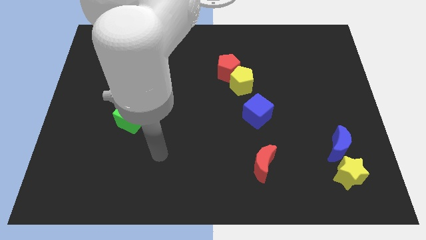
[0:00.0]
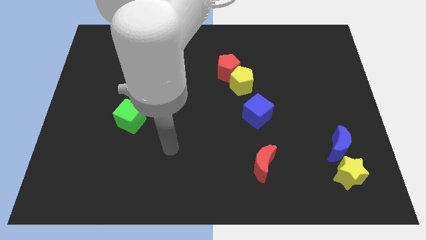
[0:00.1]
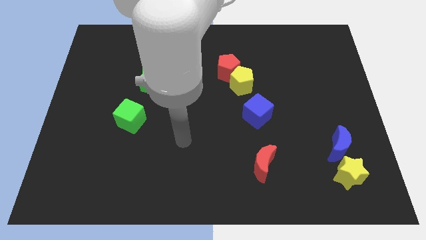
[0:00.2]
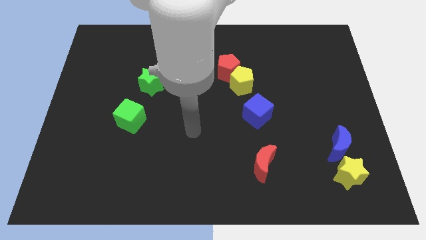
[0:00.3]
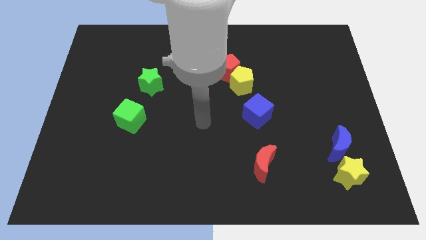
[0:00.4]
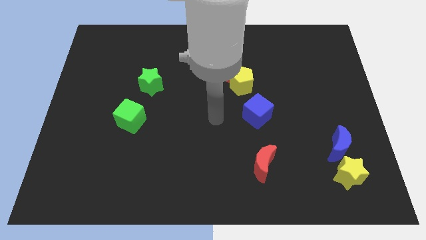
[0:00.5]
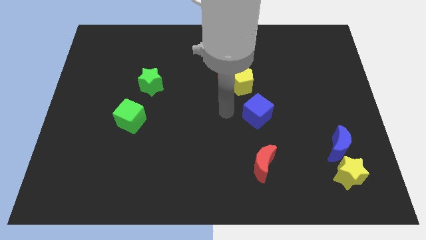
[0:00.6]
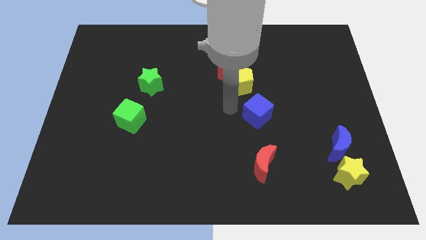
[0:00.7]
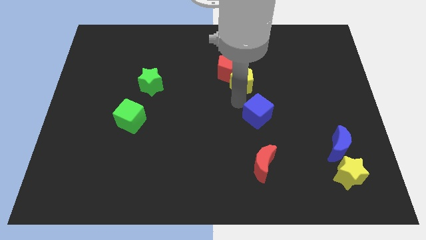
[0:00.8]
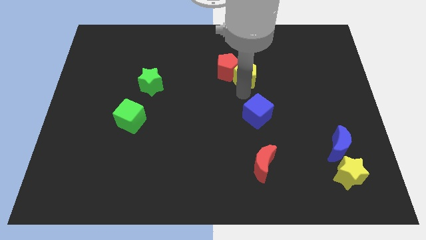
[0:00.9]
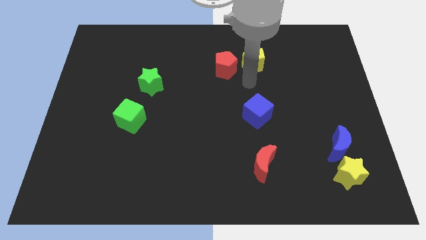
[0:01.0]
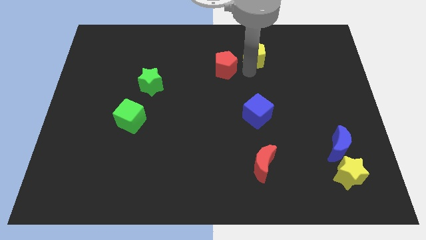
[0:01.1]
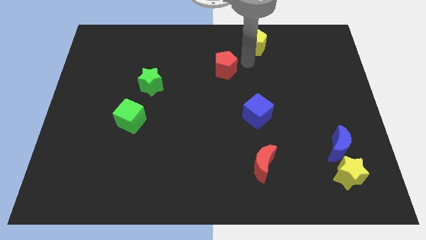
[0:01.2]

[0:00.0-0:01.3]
separate the red pentagon from the yellow pentagon

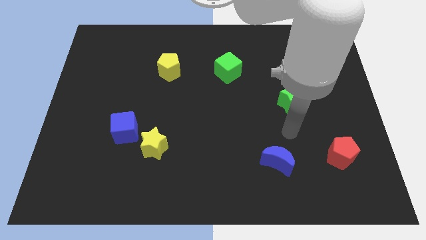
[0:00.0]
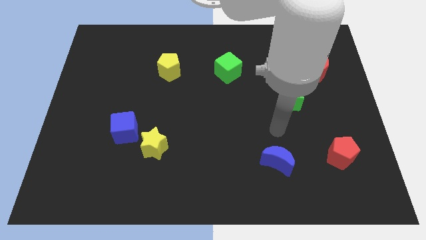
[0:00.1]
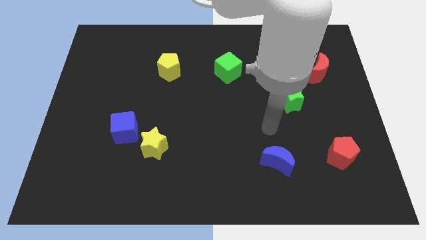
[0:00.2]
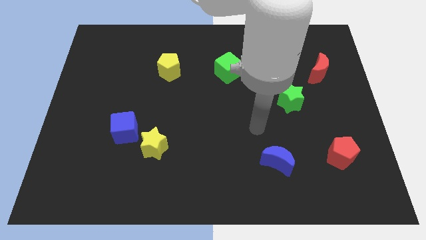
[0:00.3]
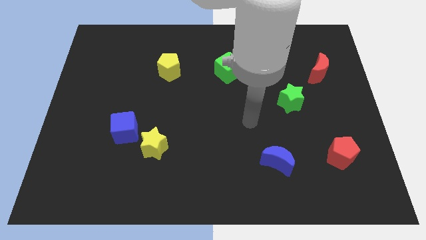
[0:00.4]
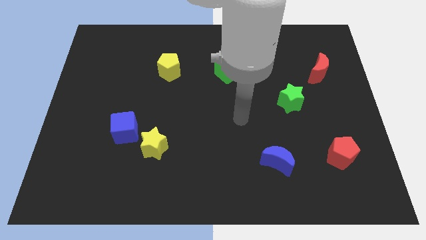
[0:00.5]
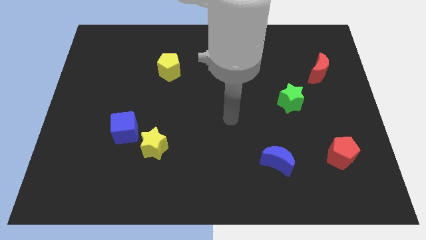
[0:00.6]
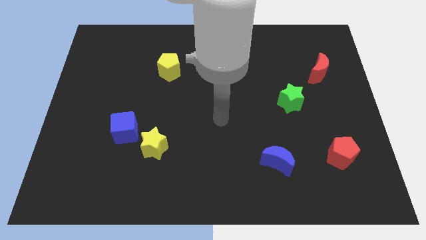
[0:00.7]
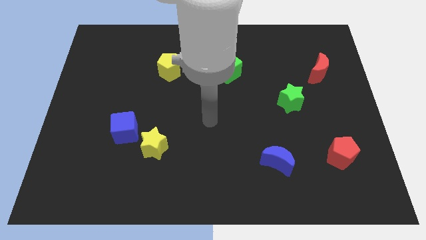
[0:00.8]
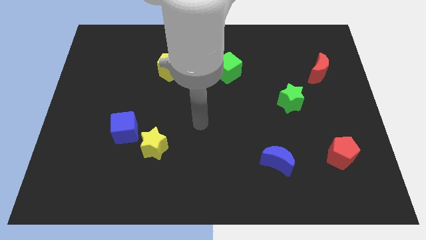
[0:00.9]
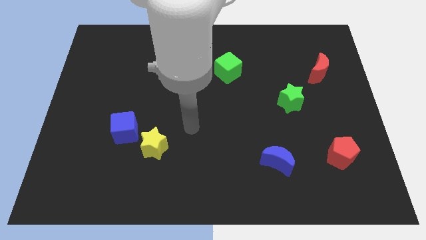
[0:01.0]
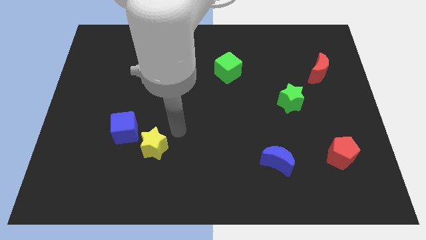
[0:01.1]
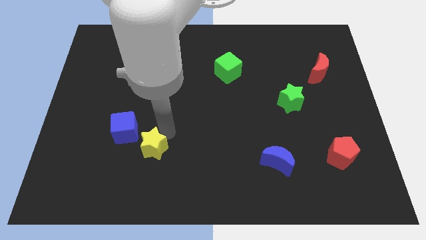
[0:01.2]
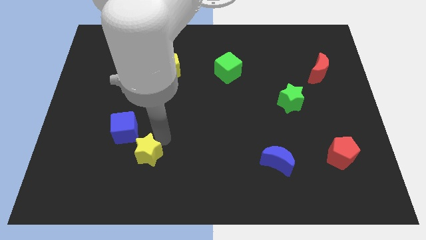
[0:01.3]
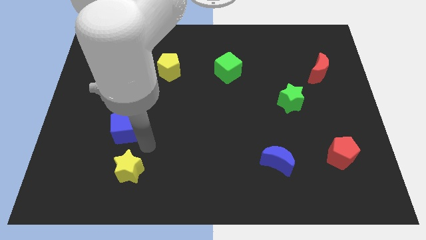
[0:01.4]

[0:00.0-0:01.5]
separate the blue cube from the yellow star

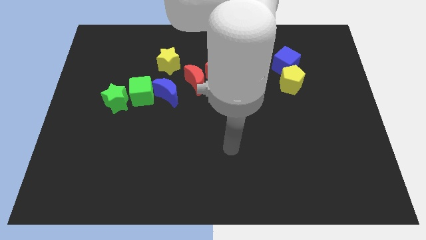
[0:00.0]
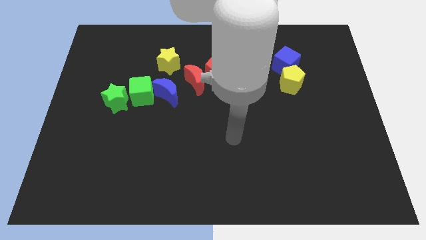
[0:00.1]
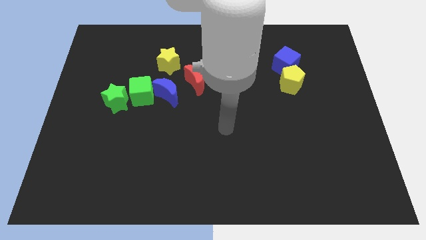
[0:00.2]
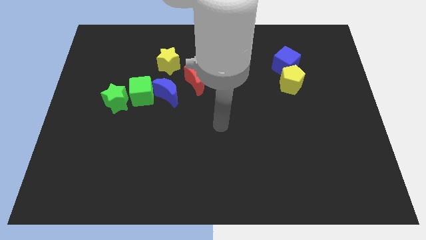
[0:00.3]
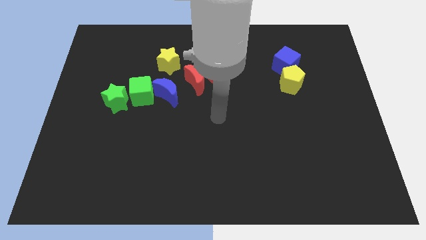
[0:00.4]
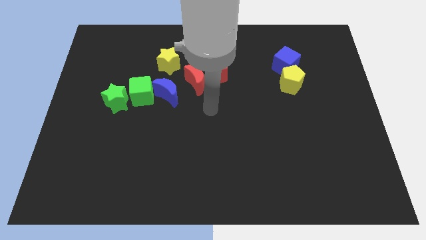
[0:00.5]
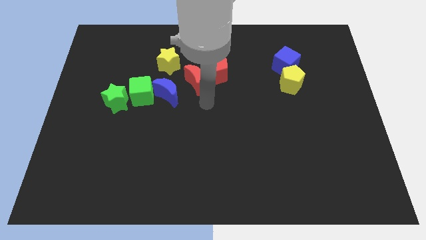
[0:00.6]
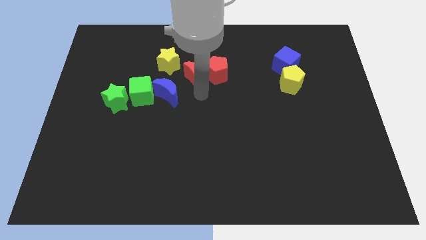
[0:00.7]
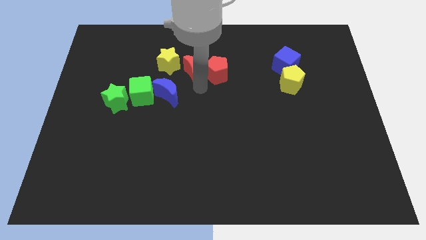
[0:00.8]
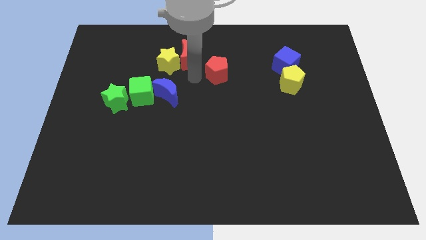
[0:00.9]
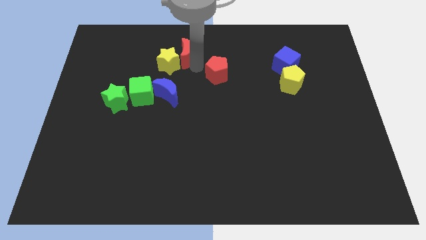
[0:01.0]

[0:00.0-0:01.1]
pull the red pentagon apart from the red moon

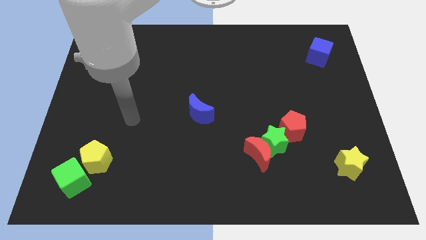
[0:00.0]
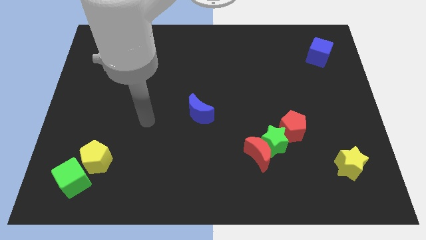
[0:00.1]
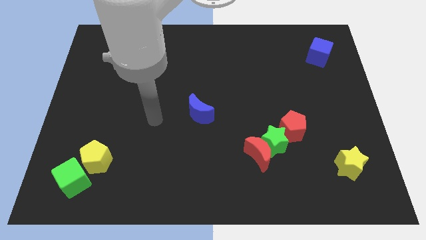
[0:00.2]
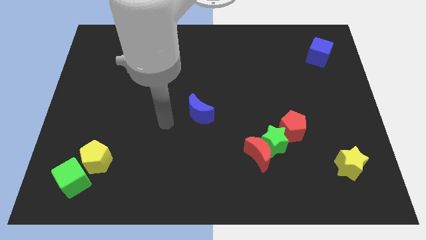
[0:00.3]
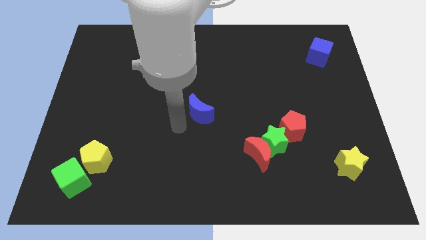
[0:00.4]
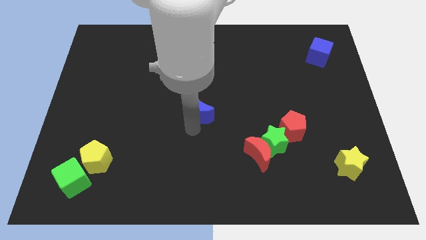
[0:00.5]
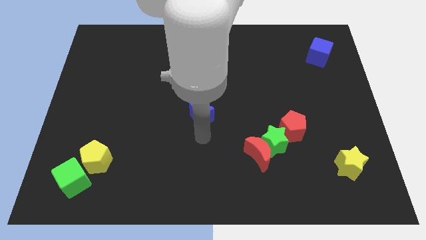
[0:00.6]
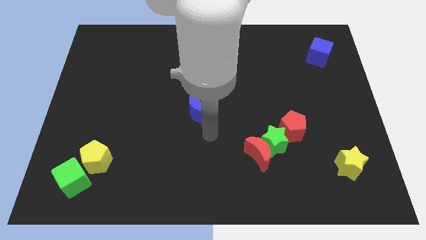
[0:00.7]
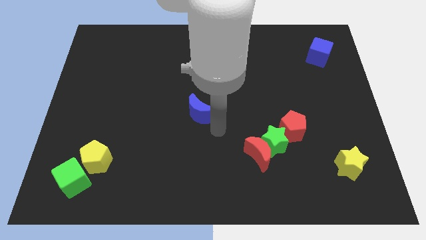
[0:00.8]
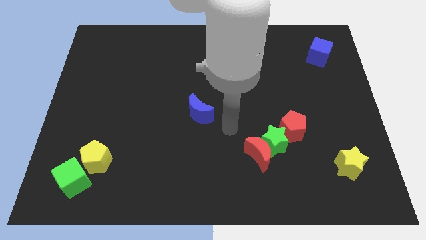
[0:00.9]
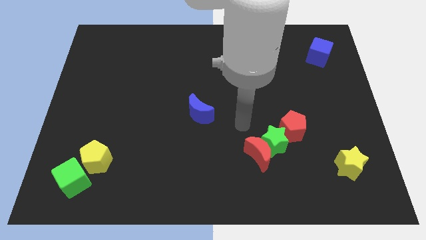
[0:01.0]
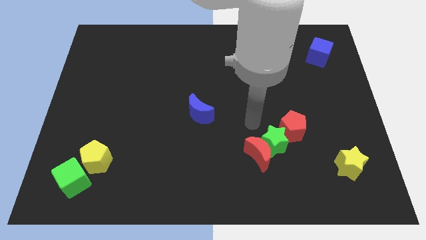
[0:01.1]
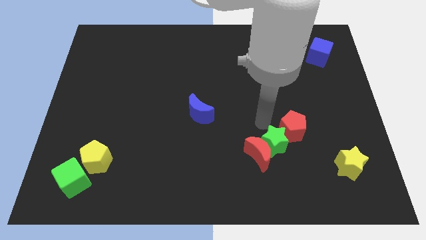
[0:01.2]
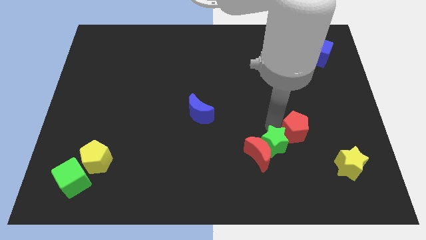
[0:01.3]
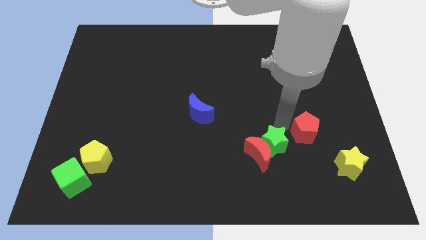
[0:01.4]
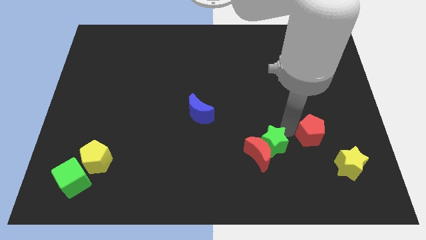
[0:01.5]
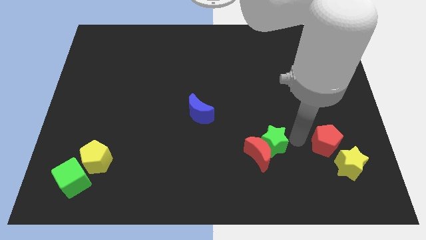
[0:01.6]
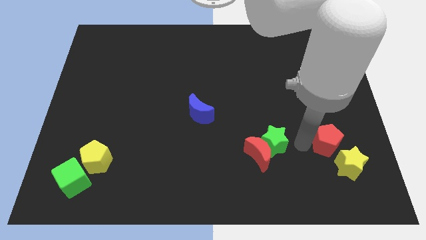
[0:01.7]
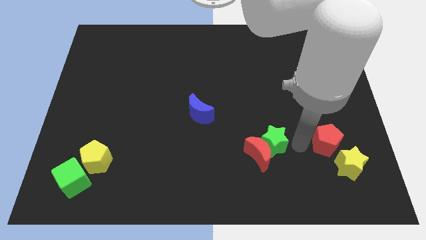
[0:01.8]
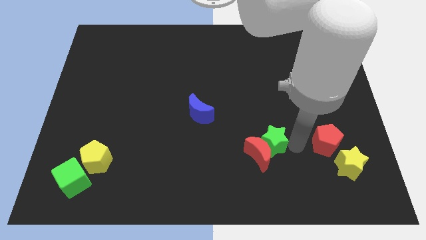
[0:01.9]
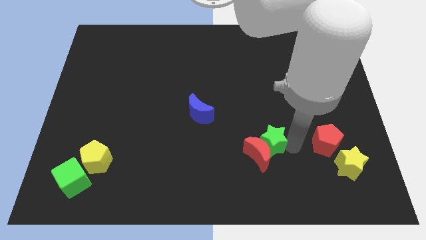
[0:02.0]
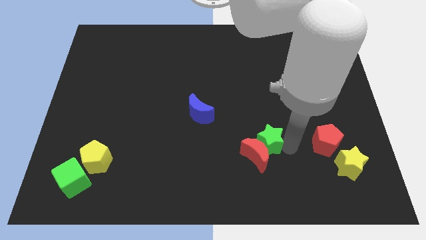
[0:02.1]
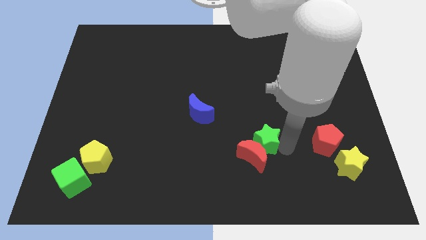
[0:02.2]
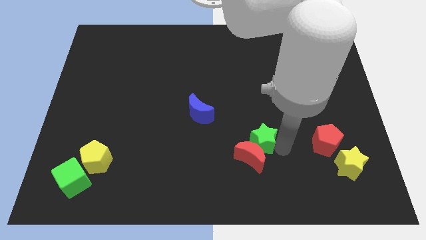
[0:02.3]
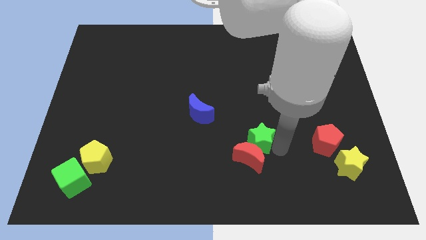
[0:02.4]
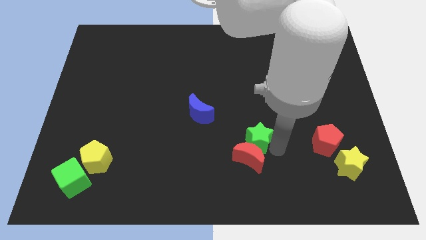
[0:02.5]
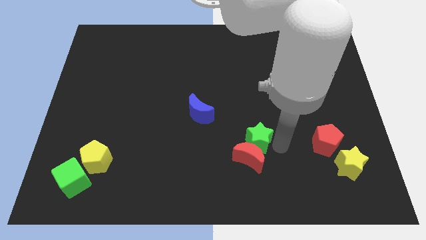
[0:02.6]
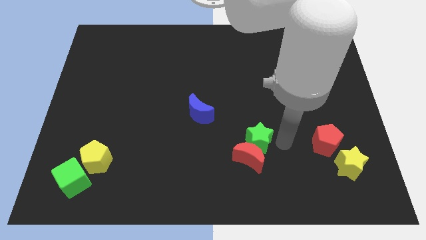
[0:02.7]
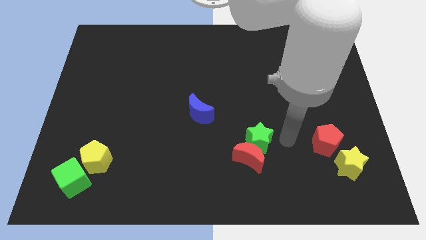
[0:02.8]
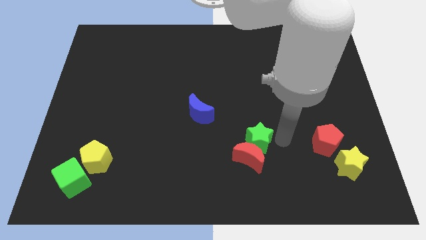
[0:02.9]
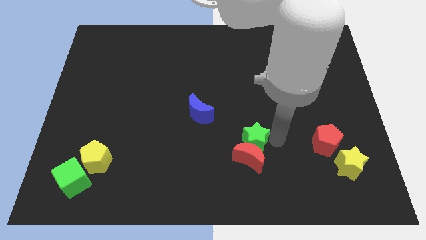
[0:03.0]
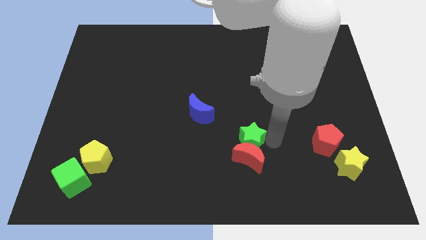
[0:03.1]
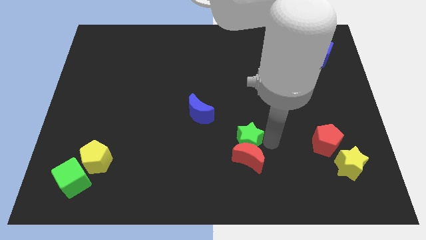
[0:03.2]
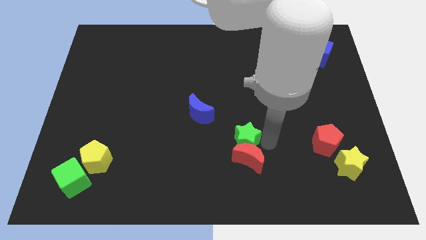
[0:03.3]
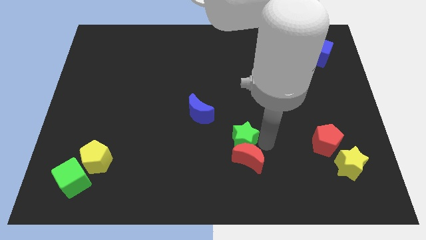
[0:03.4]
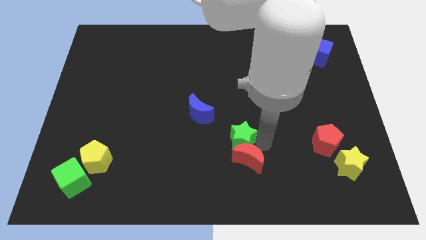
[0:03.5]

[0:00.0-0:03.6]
separate the green star from the red moon and red pentagon

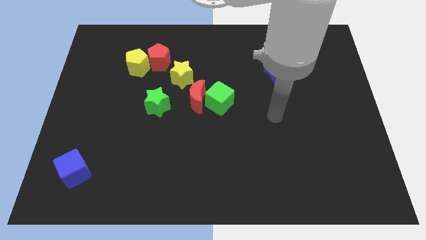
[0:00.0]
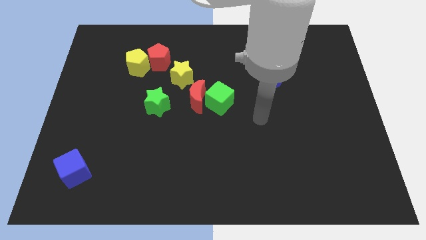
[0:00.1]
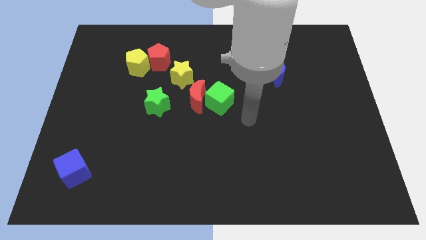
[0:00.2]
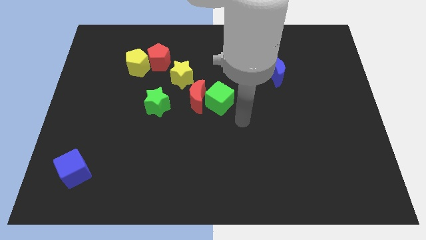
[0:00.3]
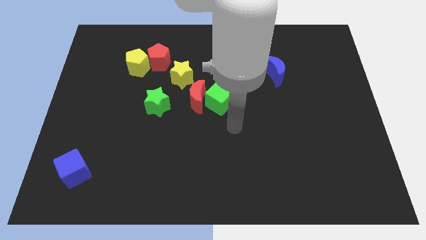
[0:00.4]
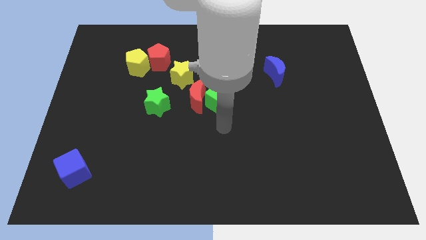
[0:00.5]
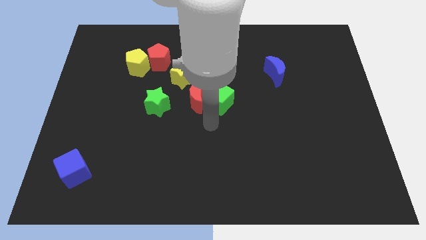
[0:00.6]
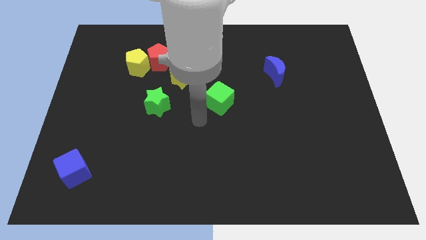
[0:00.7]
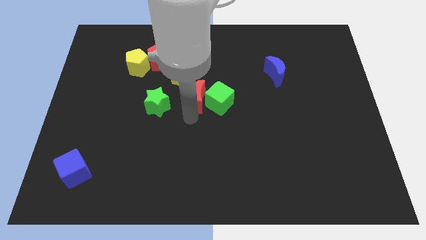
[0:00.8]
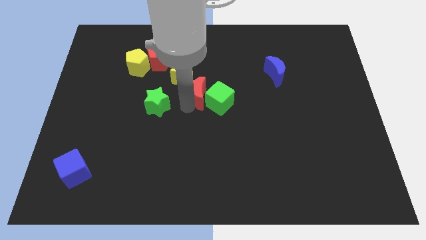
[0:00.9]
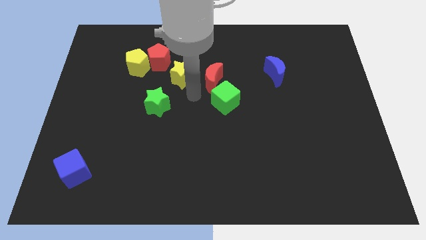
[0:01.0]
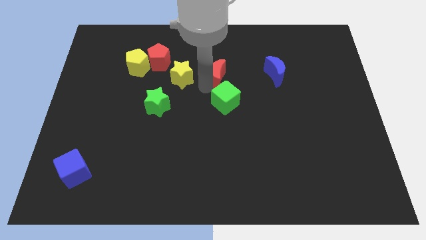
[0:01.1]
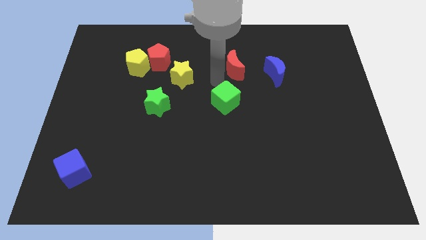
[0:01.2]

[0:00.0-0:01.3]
separate the green cube from the red moon

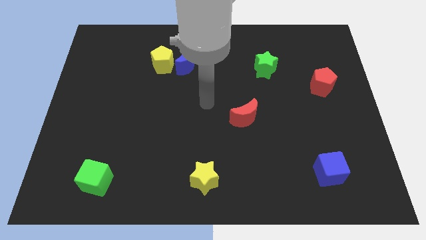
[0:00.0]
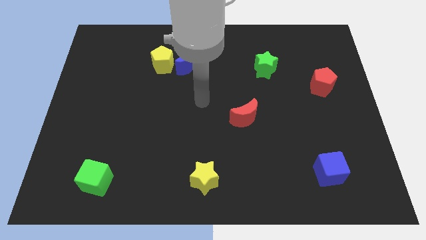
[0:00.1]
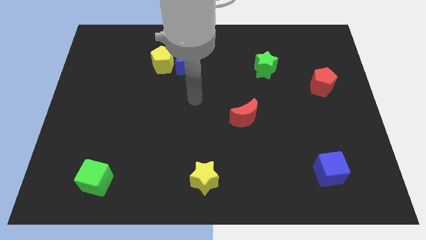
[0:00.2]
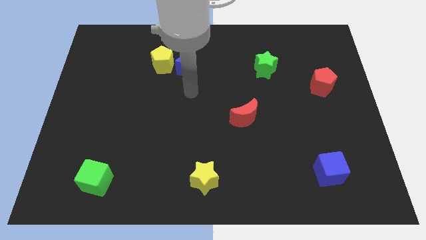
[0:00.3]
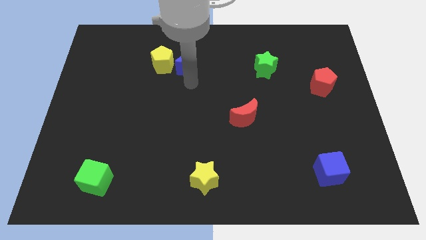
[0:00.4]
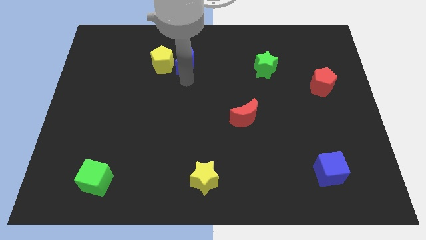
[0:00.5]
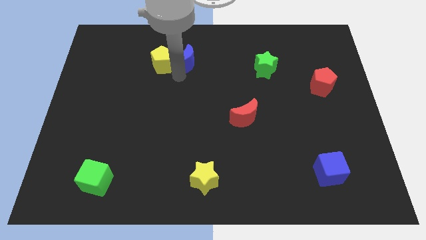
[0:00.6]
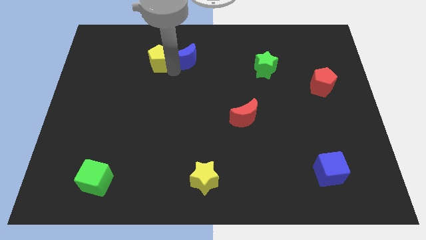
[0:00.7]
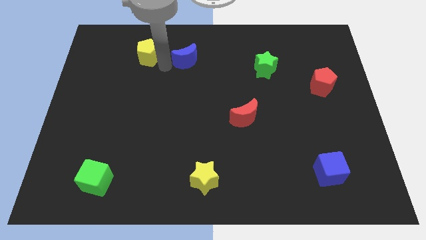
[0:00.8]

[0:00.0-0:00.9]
pull the blue moon apart from the yellow pentagon
